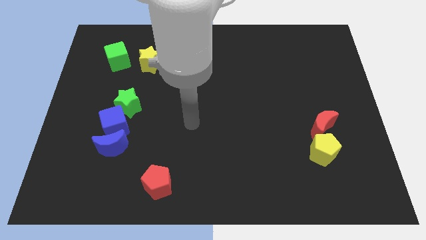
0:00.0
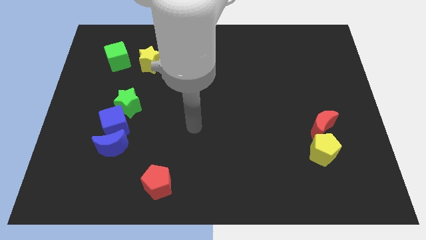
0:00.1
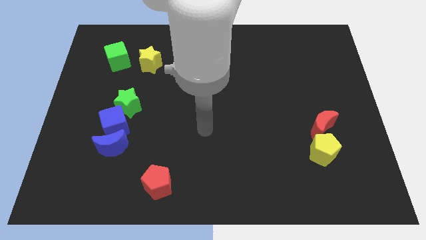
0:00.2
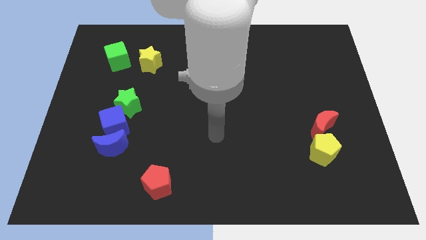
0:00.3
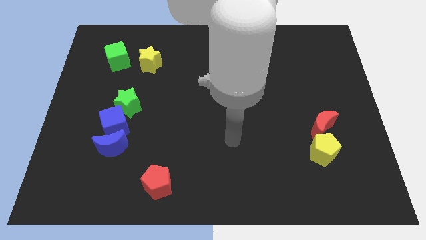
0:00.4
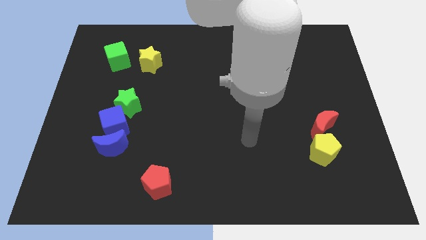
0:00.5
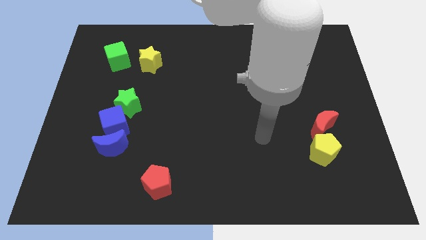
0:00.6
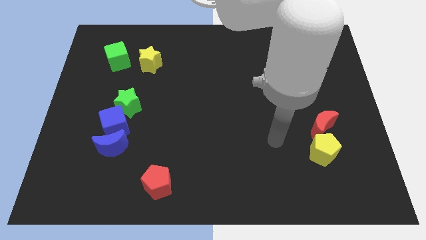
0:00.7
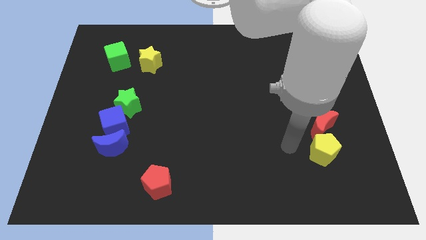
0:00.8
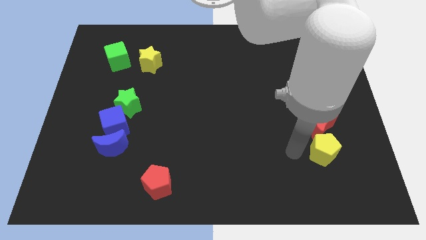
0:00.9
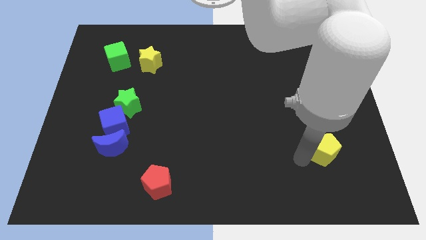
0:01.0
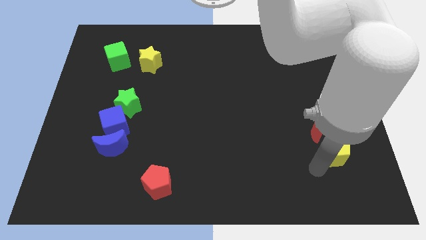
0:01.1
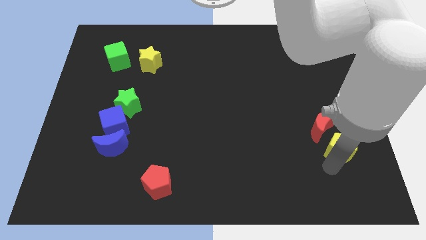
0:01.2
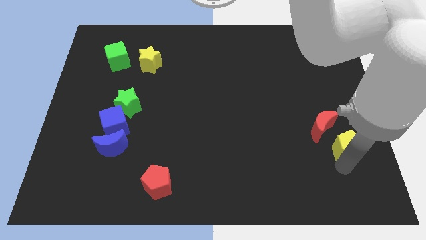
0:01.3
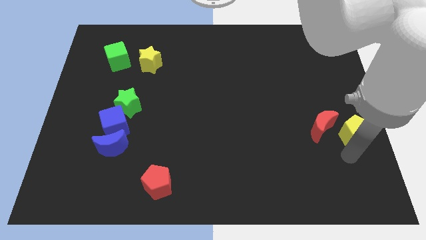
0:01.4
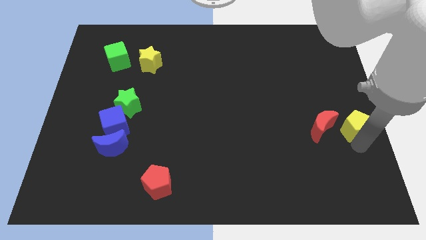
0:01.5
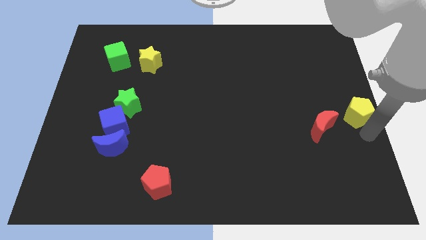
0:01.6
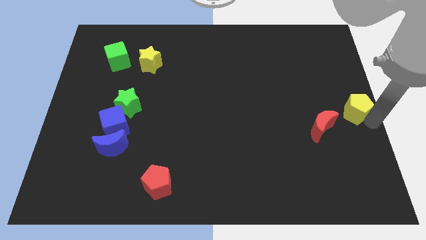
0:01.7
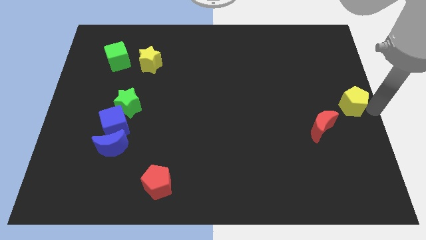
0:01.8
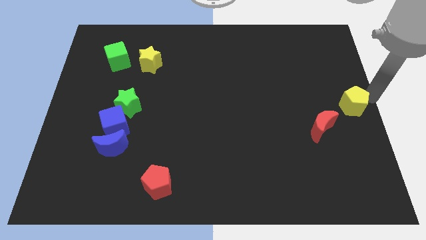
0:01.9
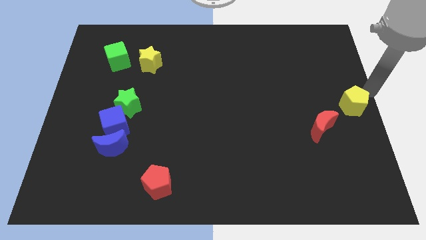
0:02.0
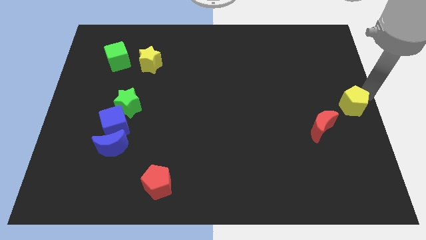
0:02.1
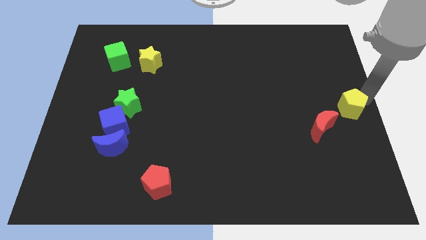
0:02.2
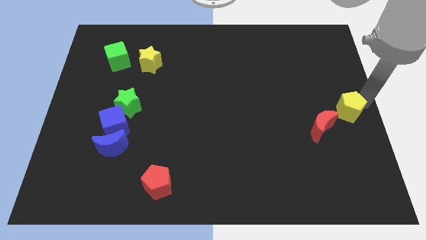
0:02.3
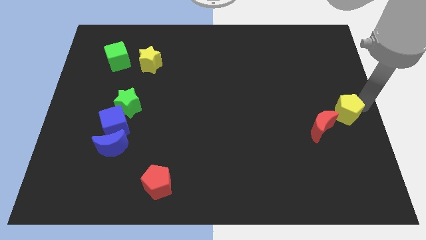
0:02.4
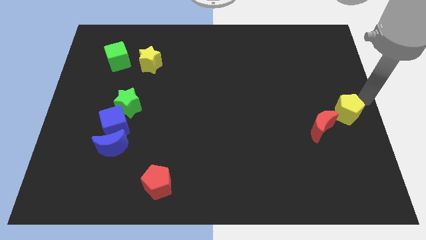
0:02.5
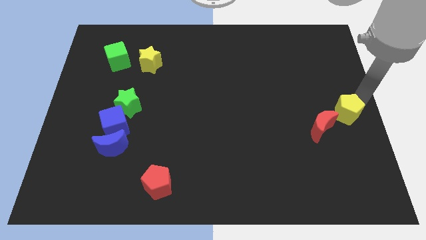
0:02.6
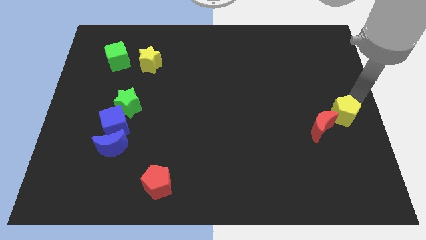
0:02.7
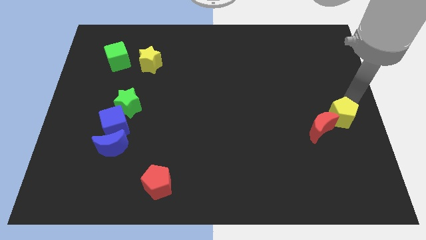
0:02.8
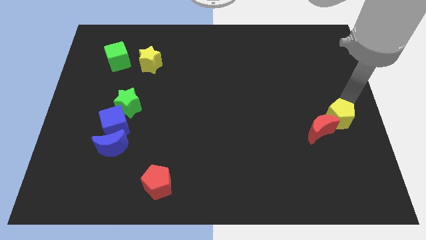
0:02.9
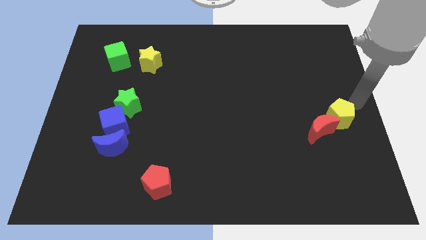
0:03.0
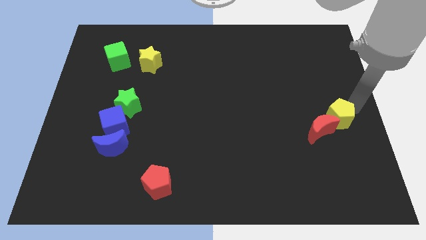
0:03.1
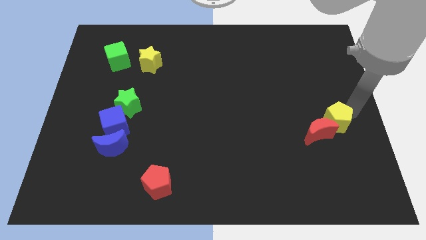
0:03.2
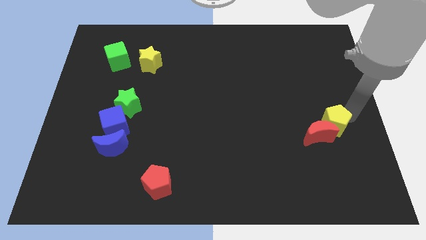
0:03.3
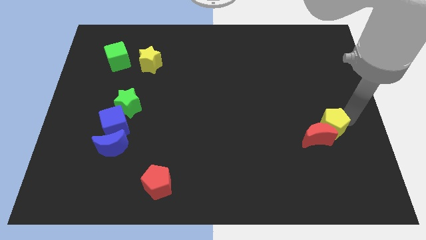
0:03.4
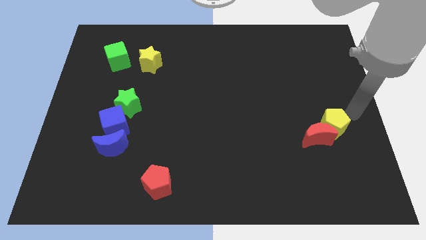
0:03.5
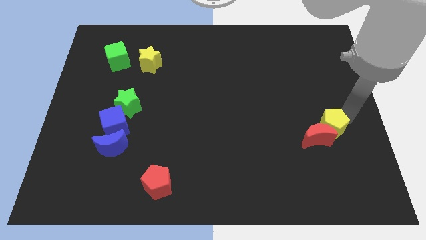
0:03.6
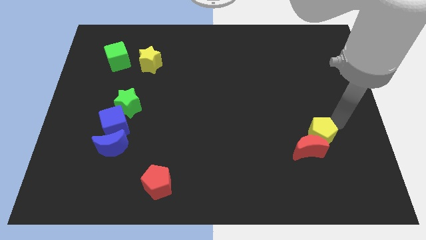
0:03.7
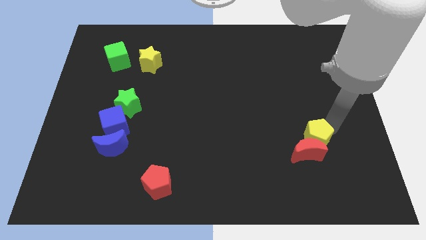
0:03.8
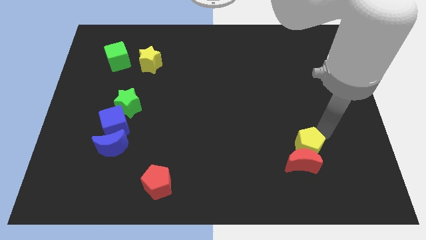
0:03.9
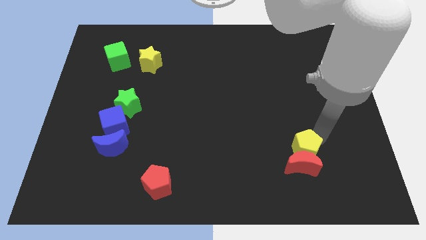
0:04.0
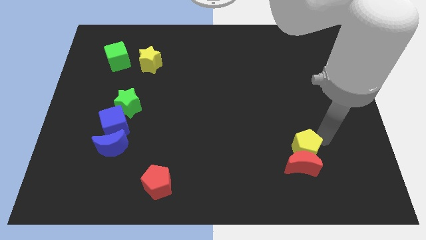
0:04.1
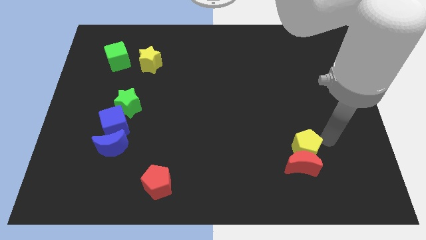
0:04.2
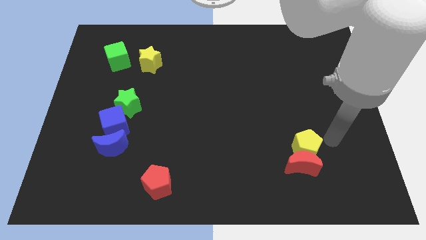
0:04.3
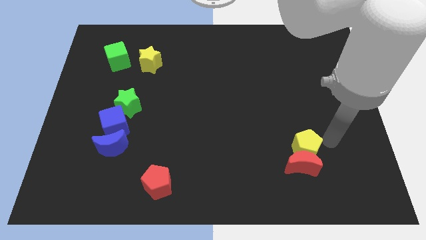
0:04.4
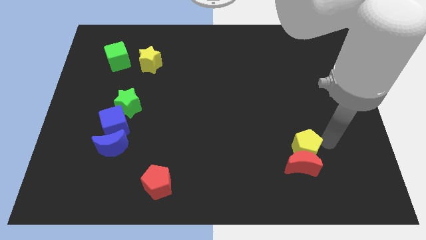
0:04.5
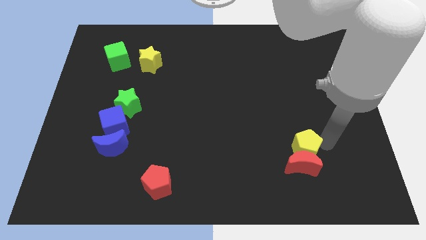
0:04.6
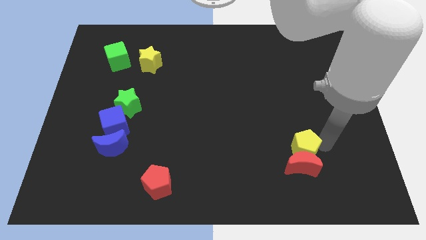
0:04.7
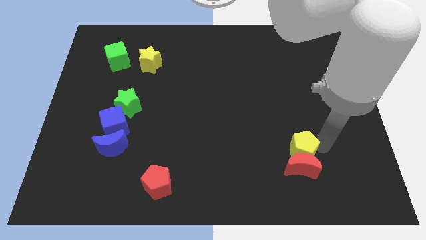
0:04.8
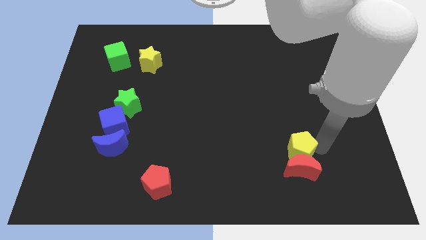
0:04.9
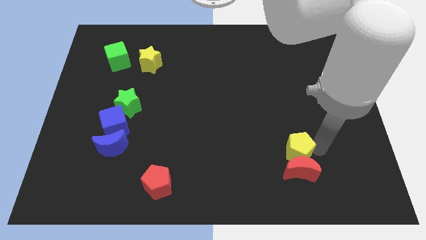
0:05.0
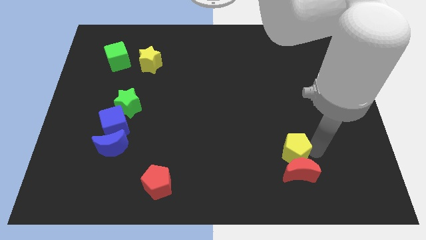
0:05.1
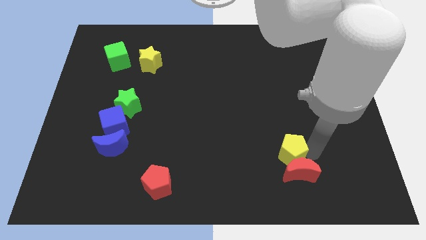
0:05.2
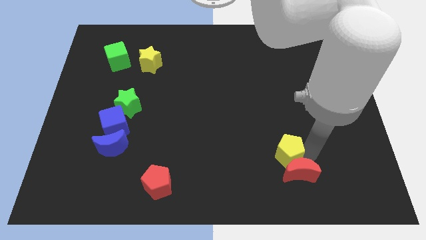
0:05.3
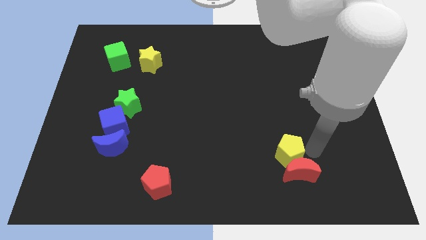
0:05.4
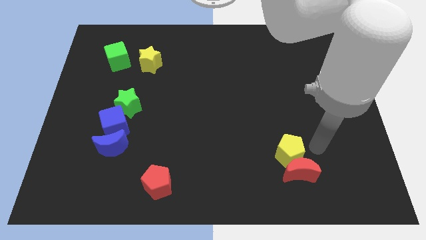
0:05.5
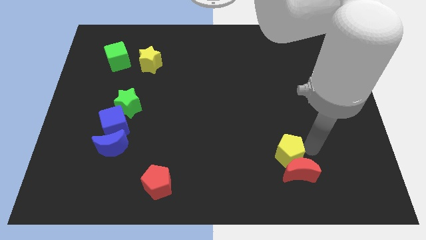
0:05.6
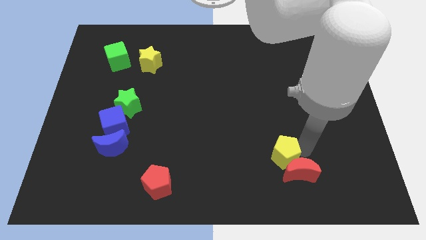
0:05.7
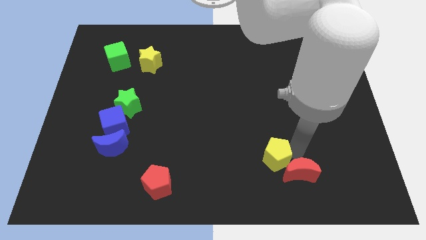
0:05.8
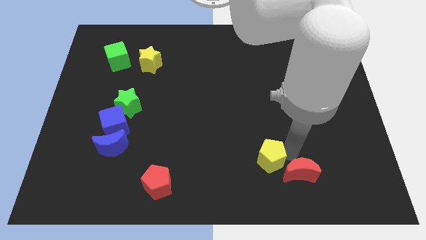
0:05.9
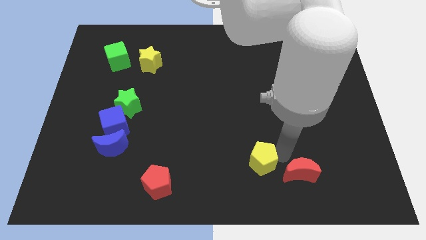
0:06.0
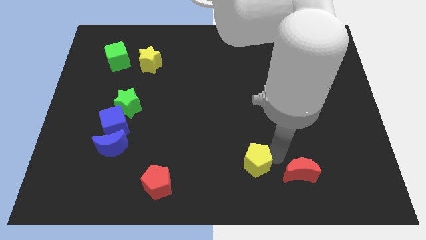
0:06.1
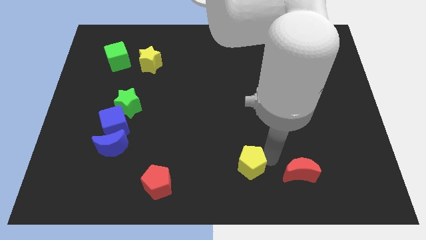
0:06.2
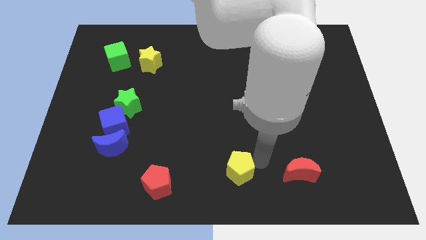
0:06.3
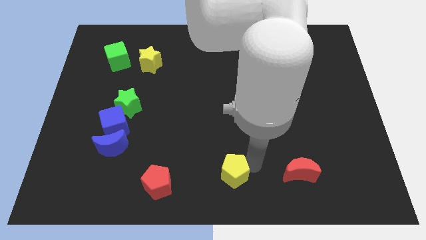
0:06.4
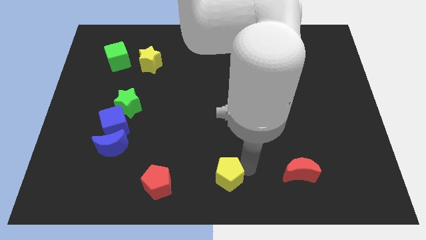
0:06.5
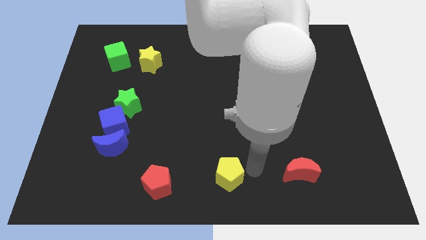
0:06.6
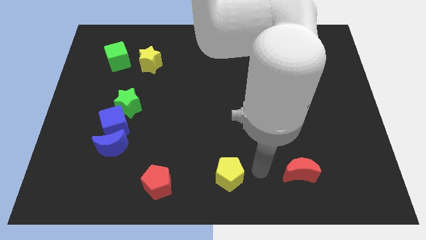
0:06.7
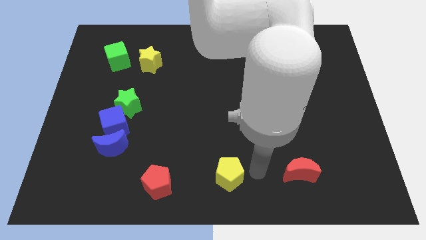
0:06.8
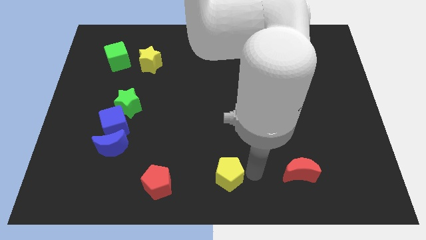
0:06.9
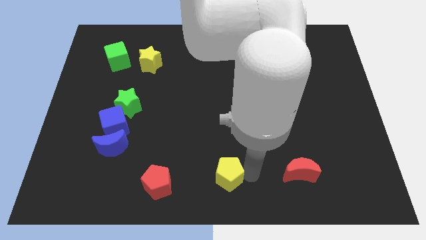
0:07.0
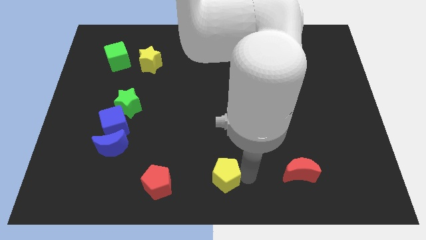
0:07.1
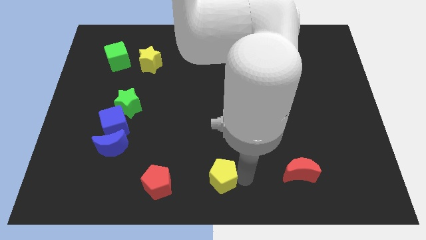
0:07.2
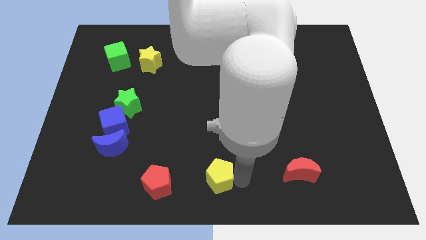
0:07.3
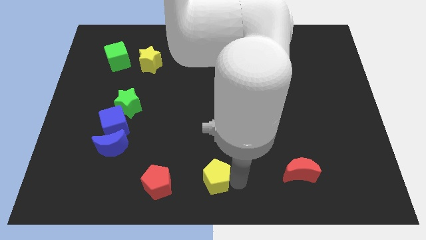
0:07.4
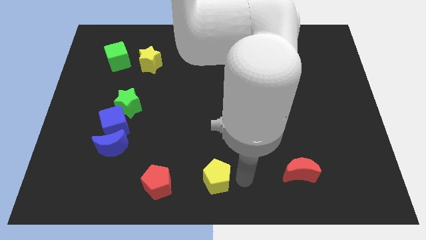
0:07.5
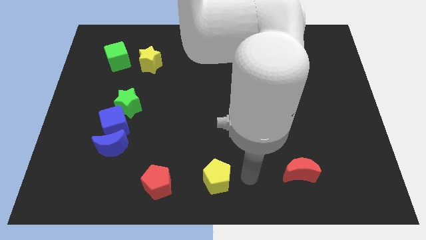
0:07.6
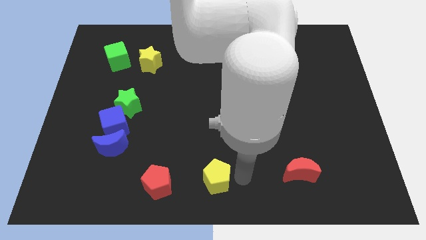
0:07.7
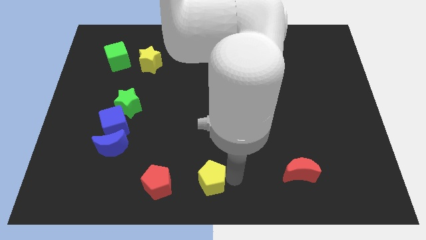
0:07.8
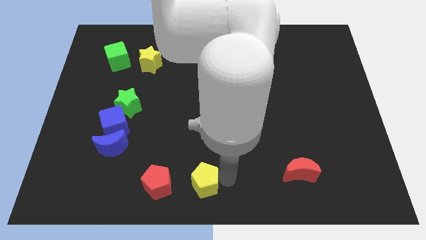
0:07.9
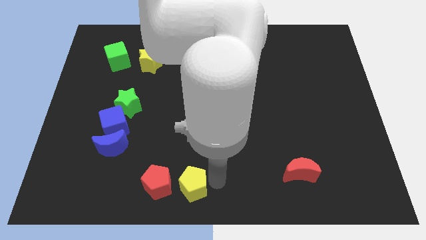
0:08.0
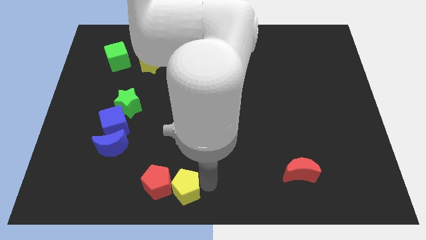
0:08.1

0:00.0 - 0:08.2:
push the yellow pentagon close to the red pentagon
